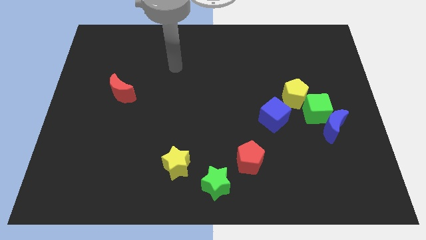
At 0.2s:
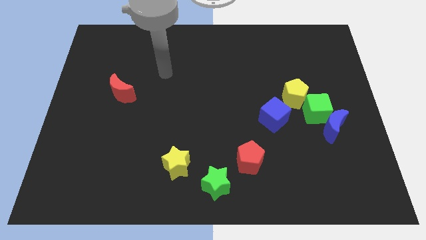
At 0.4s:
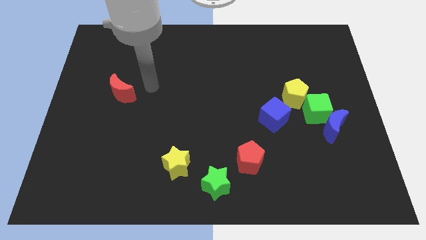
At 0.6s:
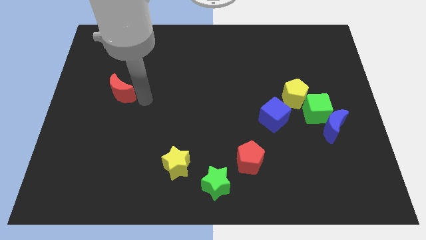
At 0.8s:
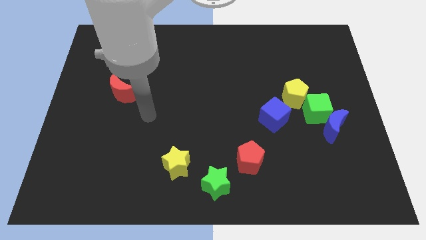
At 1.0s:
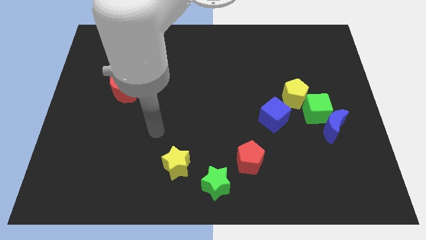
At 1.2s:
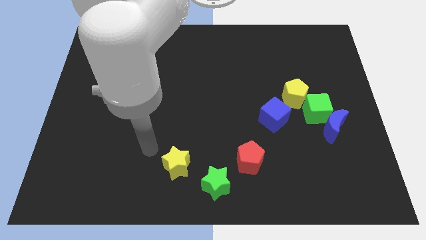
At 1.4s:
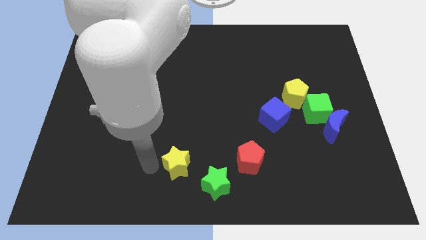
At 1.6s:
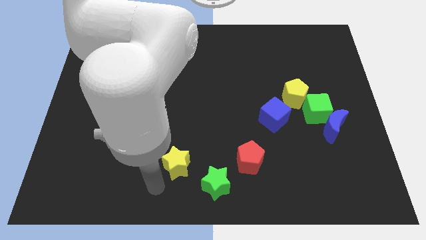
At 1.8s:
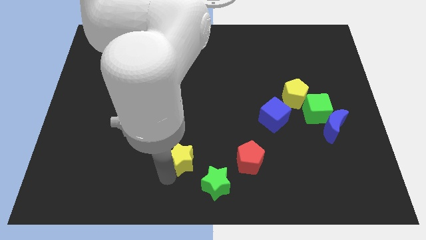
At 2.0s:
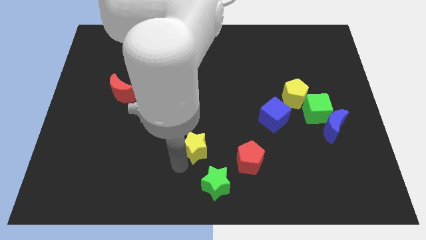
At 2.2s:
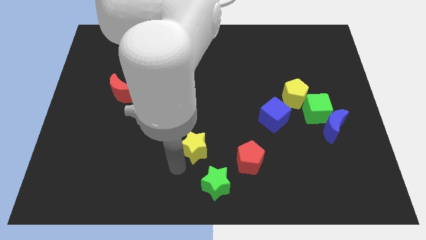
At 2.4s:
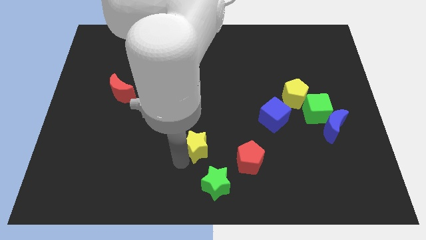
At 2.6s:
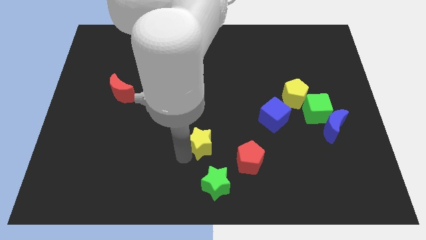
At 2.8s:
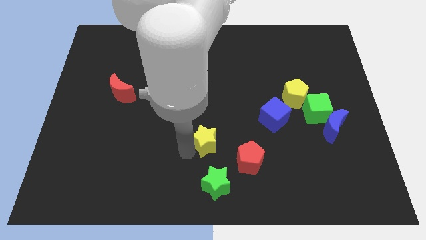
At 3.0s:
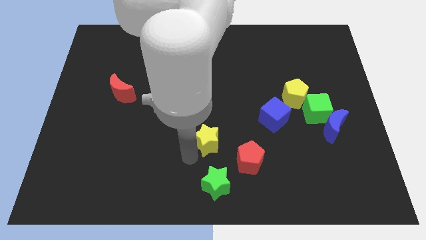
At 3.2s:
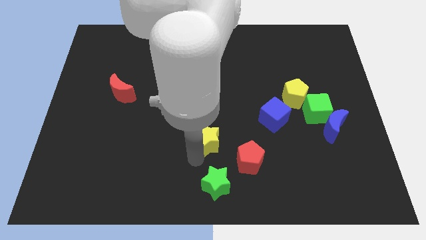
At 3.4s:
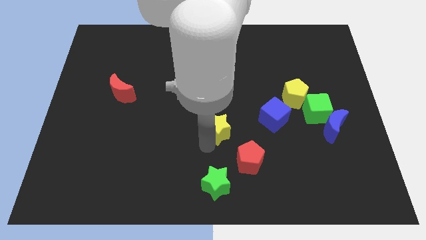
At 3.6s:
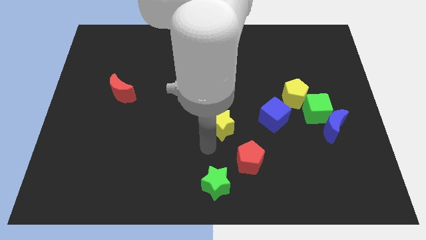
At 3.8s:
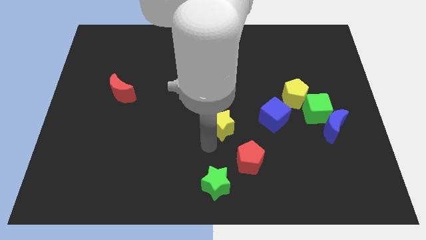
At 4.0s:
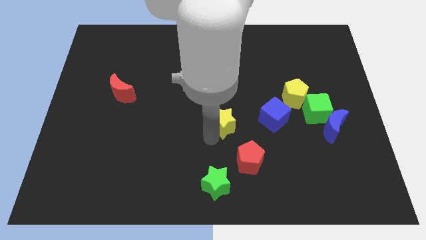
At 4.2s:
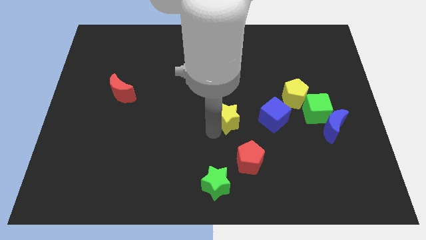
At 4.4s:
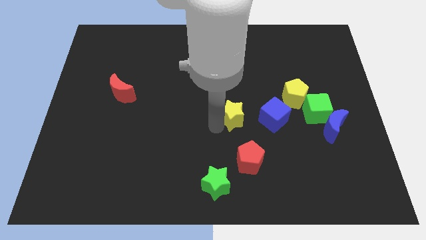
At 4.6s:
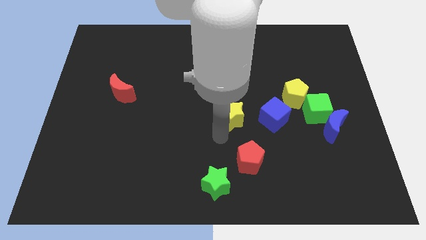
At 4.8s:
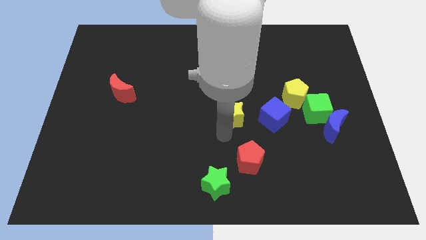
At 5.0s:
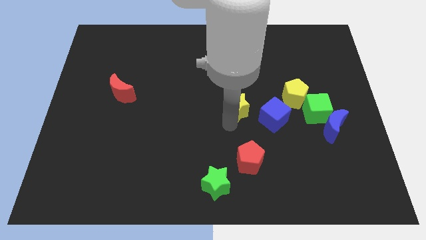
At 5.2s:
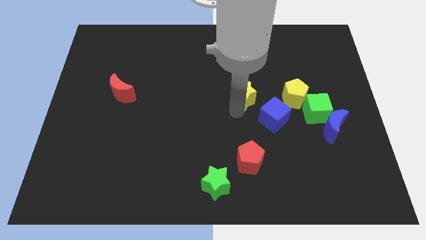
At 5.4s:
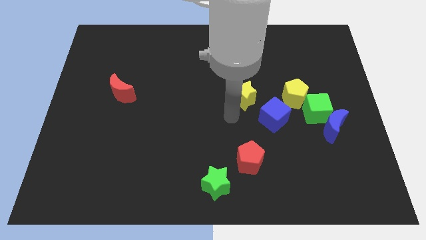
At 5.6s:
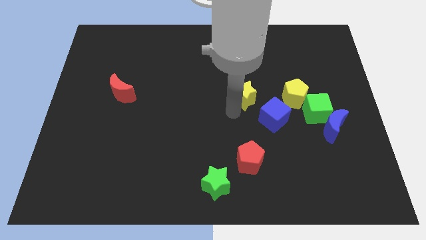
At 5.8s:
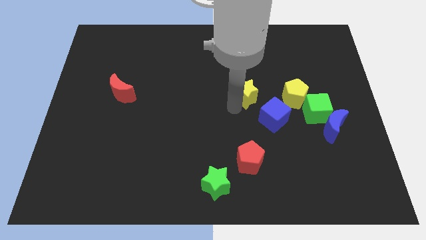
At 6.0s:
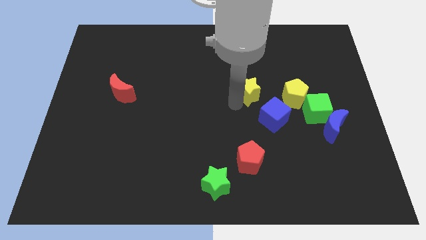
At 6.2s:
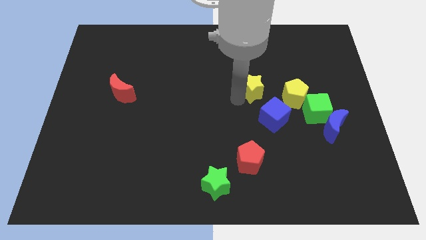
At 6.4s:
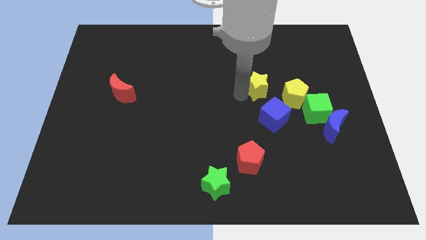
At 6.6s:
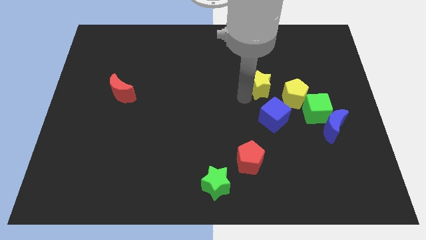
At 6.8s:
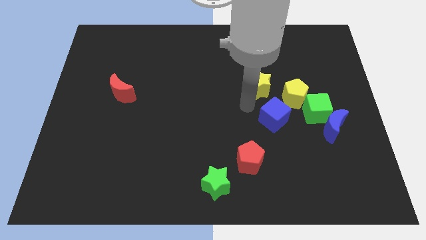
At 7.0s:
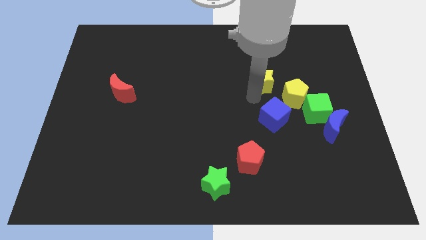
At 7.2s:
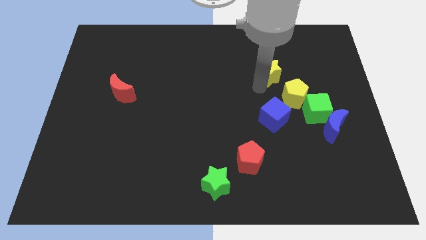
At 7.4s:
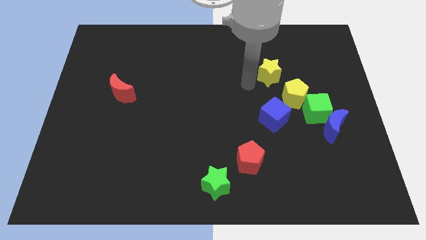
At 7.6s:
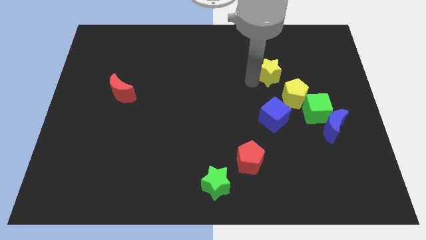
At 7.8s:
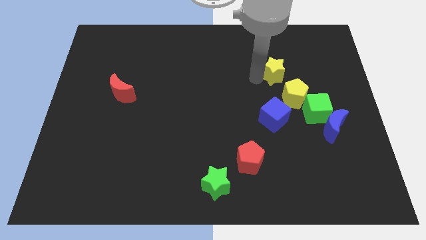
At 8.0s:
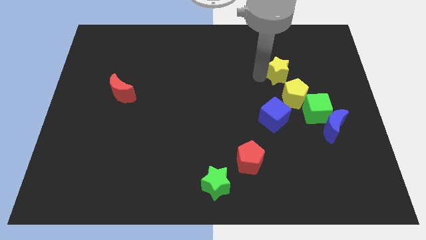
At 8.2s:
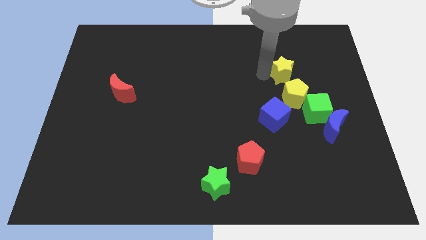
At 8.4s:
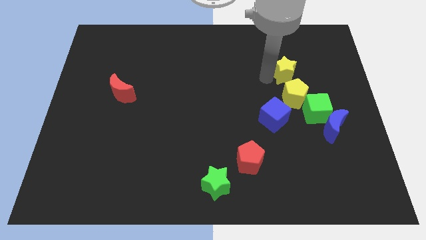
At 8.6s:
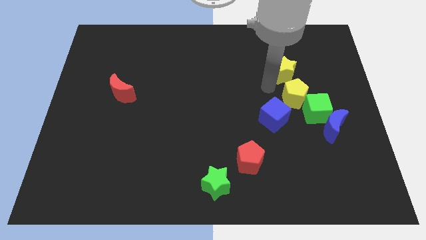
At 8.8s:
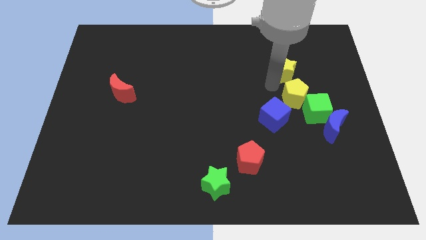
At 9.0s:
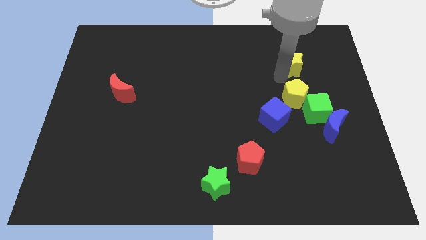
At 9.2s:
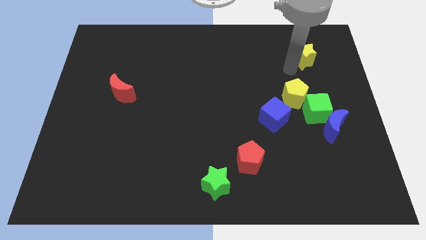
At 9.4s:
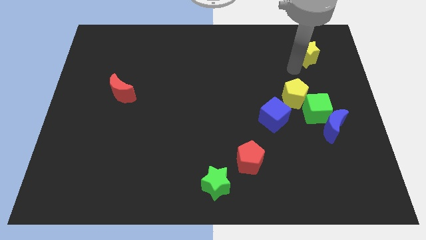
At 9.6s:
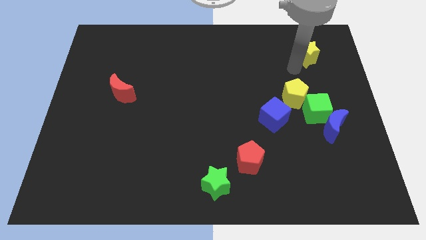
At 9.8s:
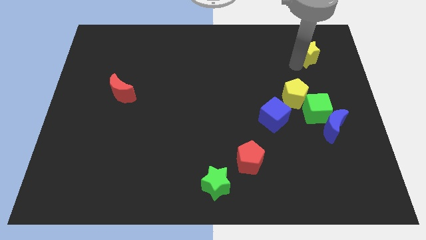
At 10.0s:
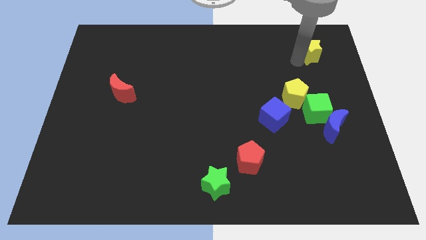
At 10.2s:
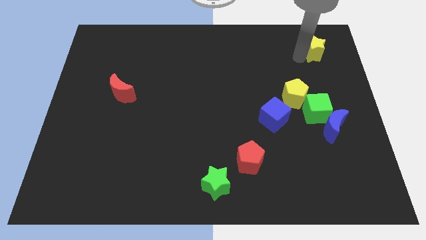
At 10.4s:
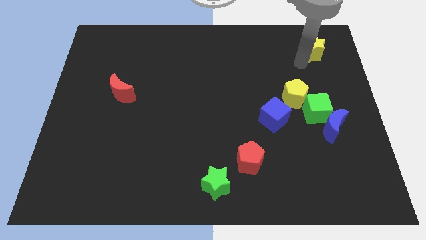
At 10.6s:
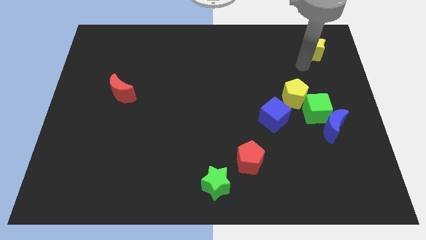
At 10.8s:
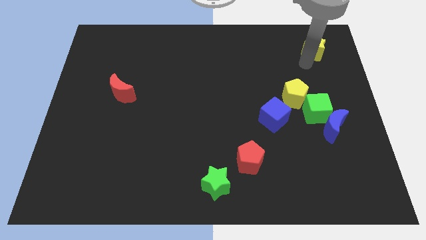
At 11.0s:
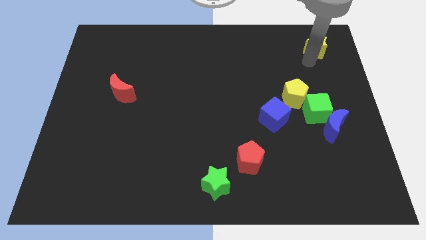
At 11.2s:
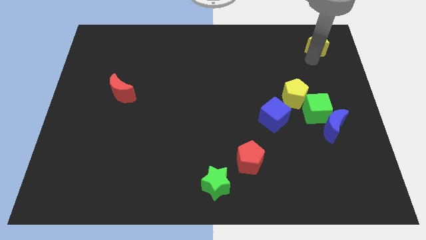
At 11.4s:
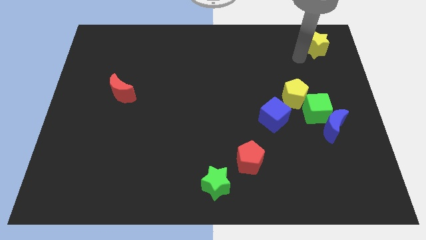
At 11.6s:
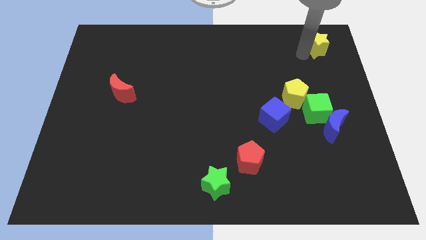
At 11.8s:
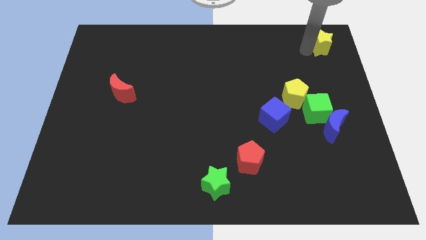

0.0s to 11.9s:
put the yellow star to the top right of the board
